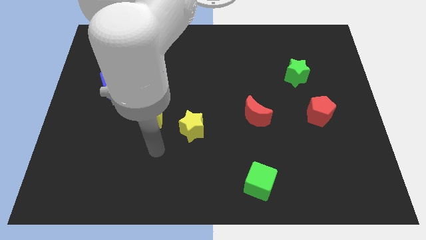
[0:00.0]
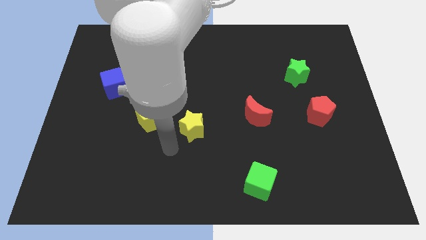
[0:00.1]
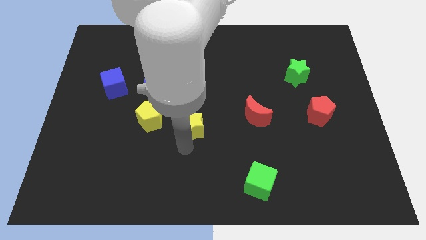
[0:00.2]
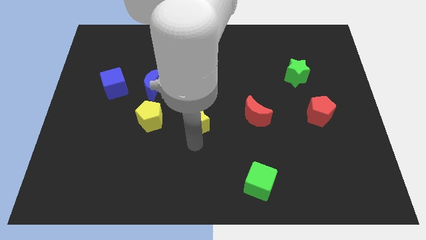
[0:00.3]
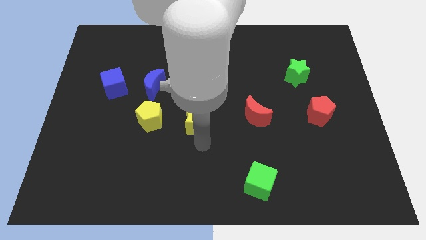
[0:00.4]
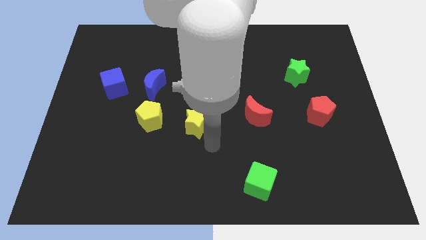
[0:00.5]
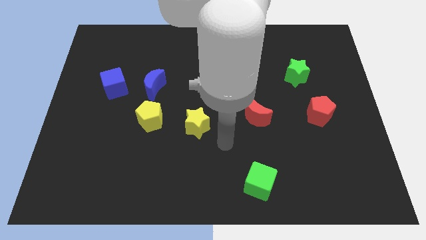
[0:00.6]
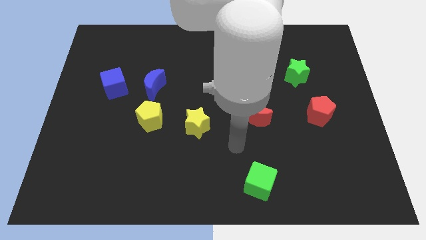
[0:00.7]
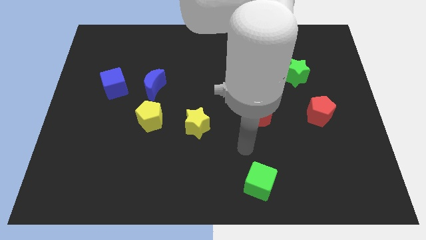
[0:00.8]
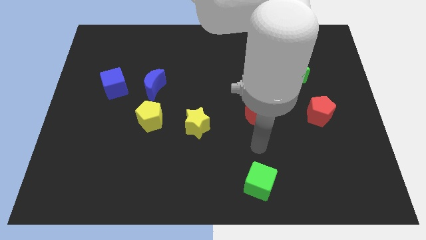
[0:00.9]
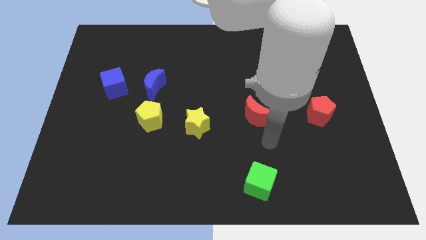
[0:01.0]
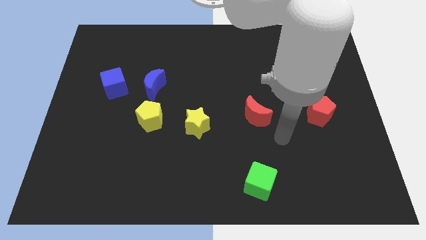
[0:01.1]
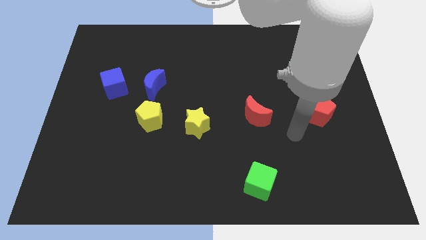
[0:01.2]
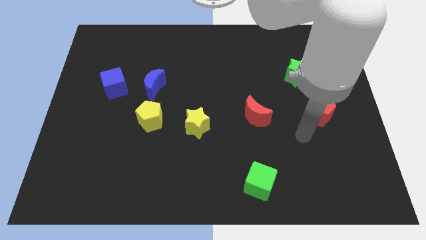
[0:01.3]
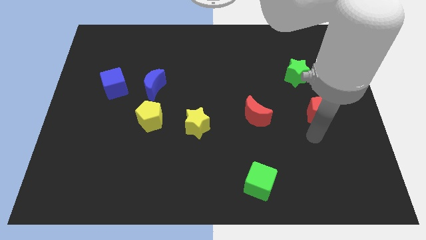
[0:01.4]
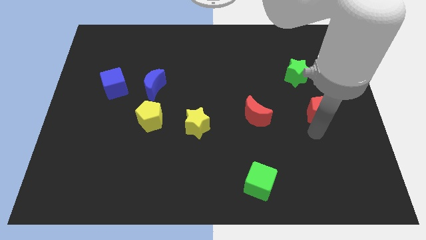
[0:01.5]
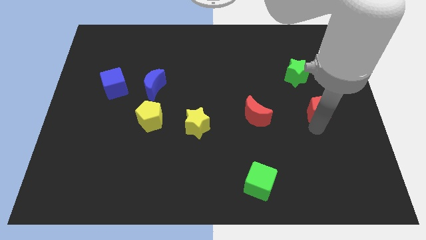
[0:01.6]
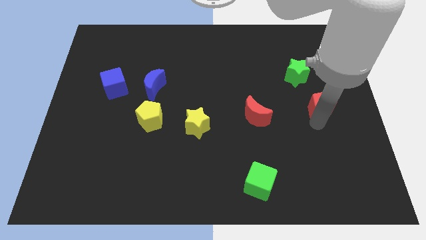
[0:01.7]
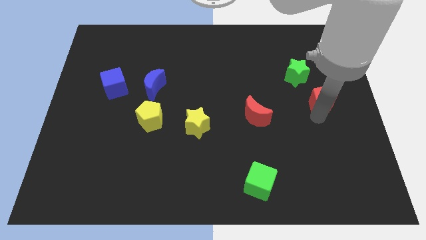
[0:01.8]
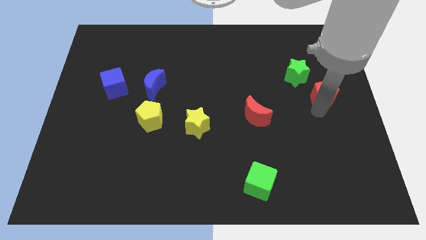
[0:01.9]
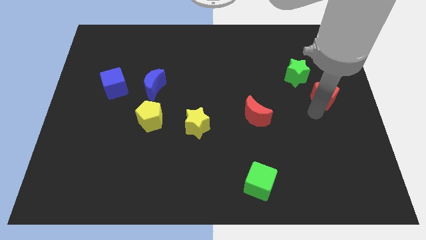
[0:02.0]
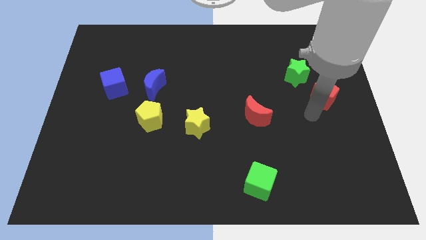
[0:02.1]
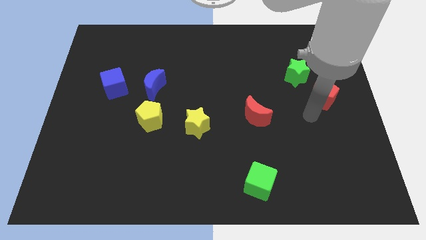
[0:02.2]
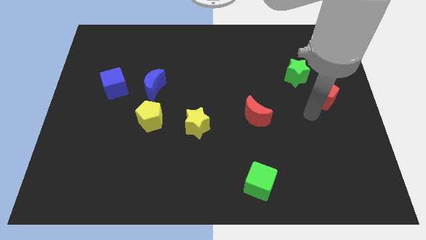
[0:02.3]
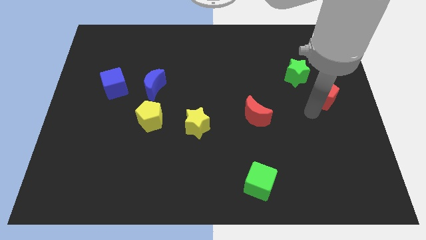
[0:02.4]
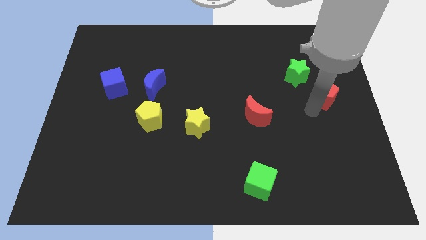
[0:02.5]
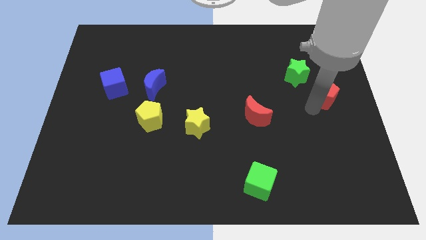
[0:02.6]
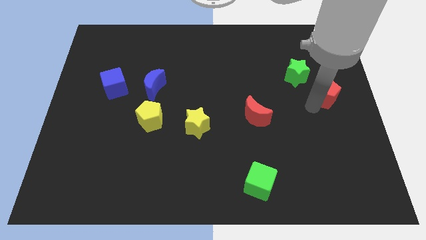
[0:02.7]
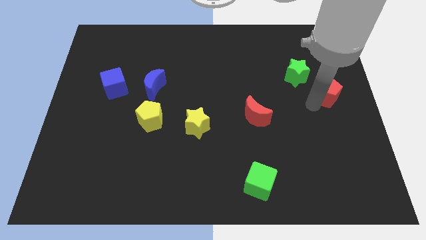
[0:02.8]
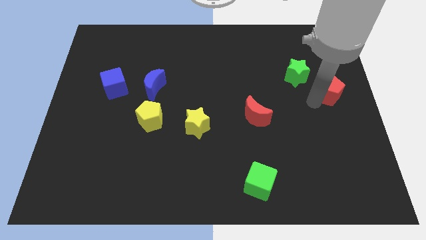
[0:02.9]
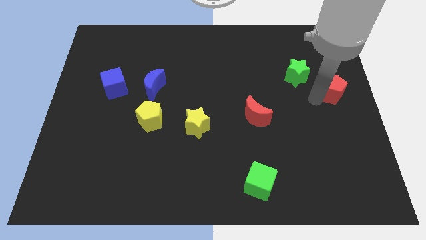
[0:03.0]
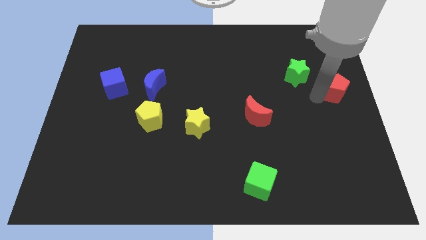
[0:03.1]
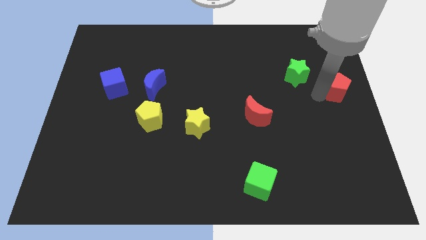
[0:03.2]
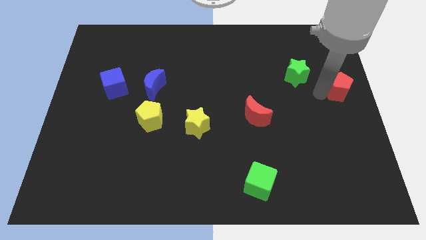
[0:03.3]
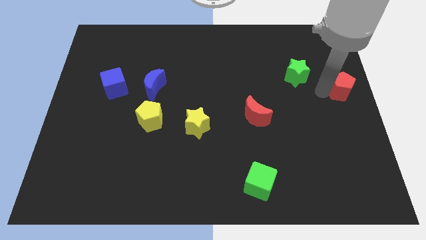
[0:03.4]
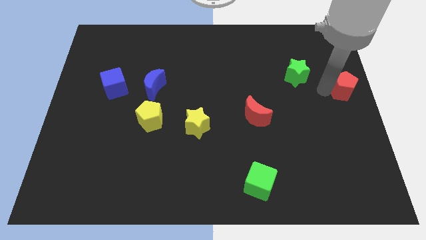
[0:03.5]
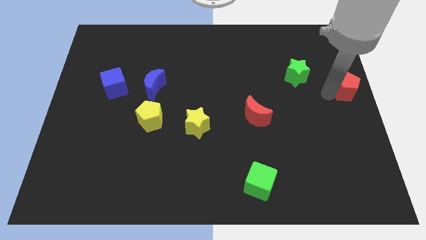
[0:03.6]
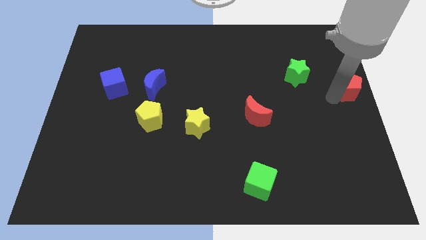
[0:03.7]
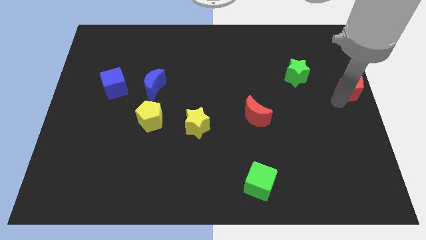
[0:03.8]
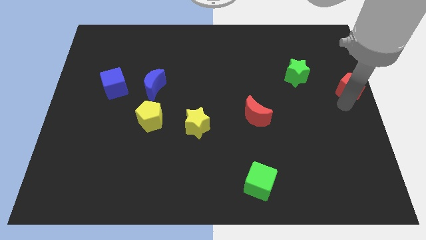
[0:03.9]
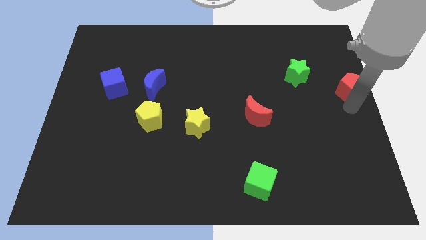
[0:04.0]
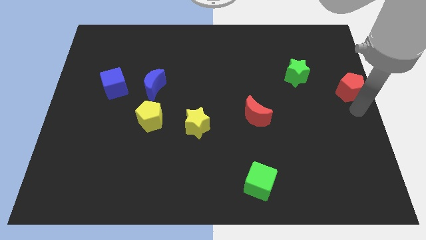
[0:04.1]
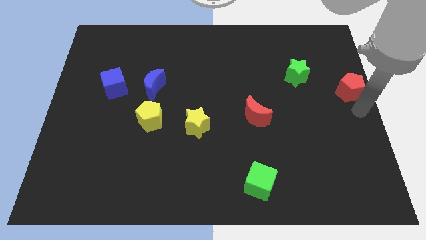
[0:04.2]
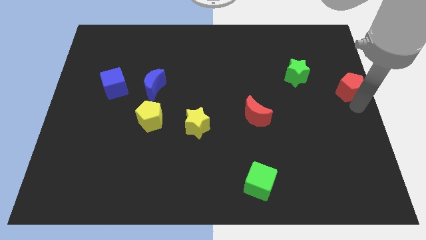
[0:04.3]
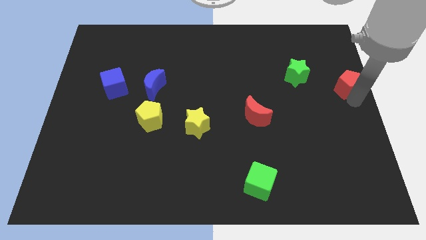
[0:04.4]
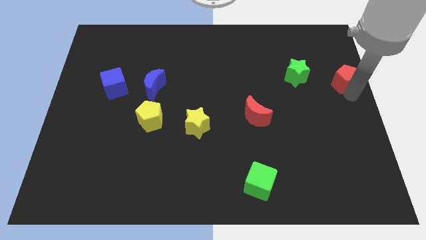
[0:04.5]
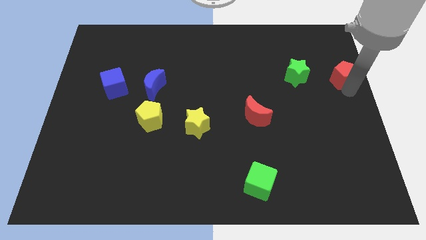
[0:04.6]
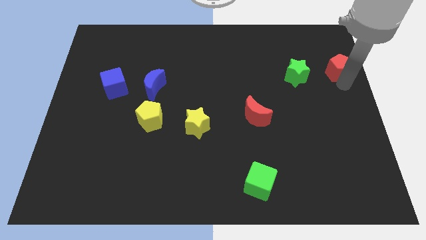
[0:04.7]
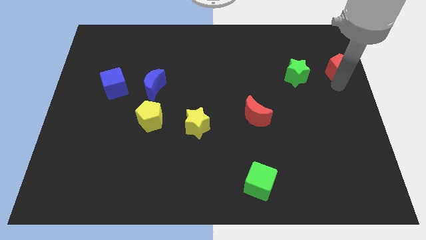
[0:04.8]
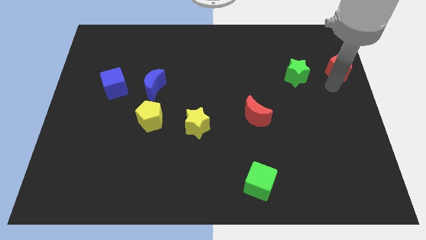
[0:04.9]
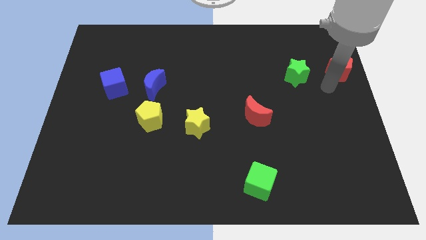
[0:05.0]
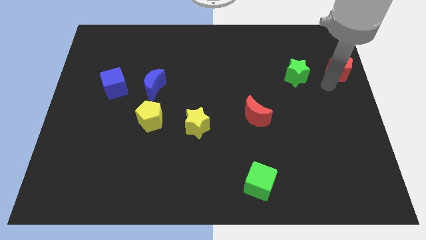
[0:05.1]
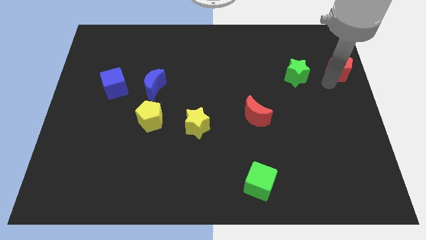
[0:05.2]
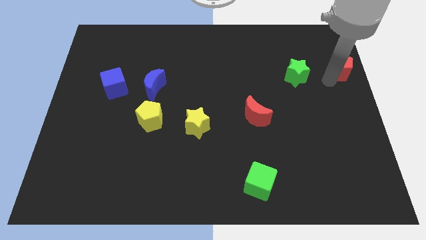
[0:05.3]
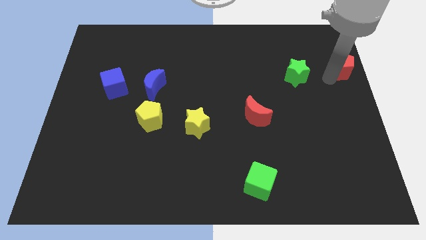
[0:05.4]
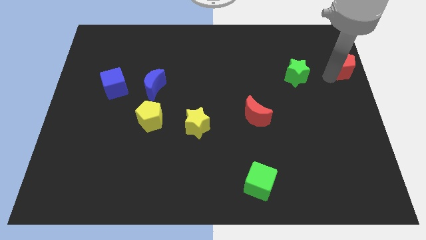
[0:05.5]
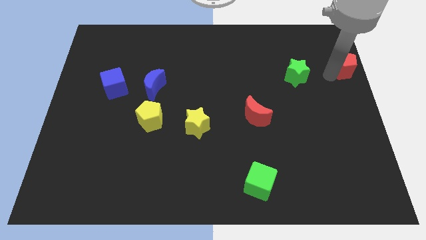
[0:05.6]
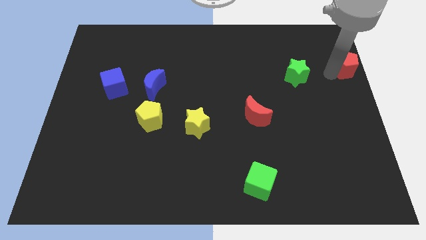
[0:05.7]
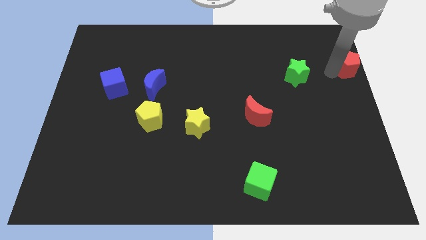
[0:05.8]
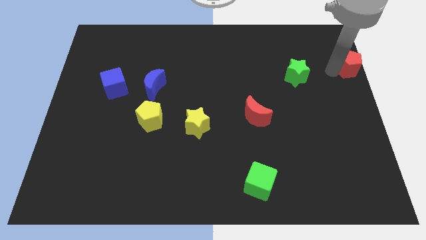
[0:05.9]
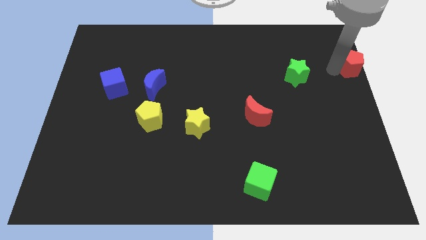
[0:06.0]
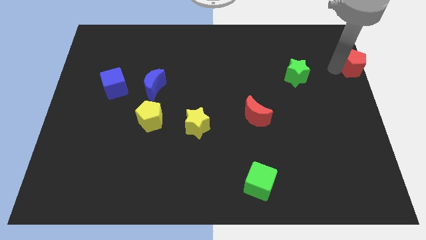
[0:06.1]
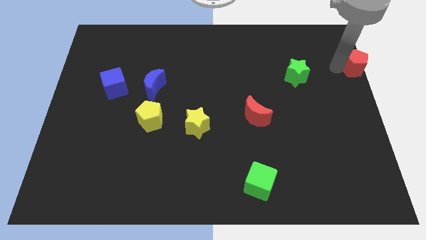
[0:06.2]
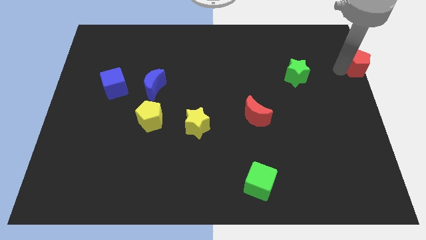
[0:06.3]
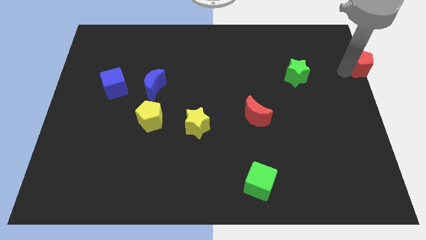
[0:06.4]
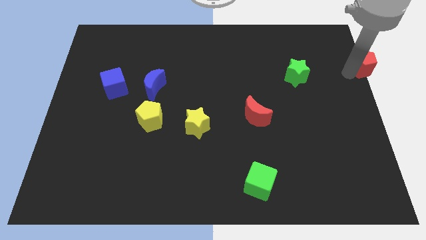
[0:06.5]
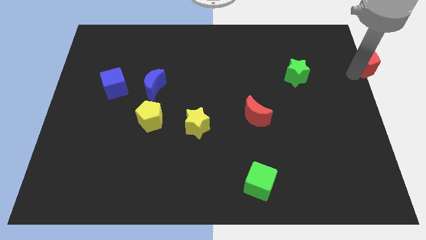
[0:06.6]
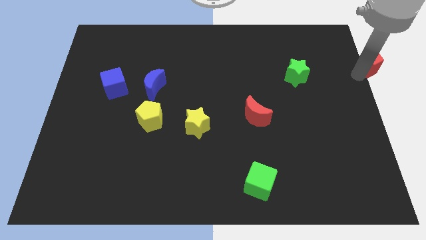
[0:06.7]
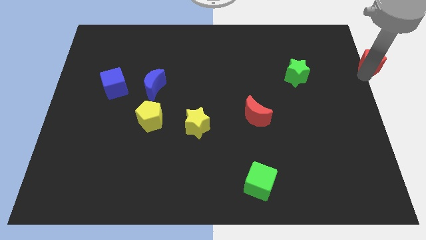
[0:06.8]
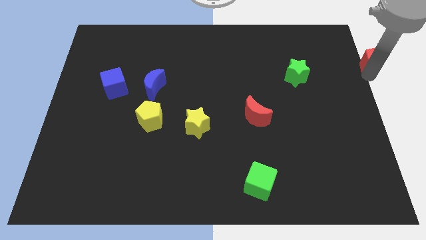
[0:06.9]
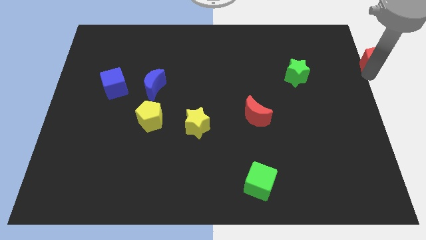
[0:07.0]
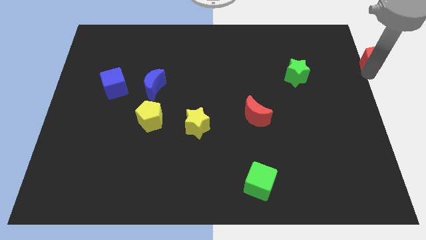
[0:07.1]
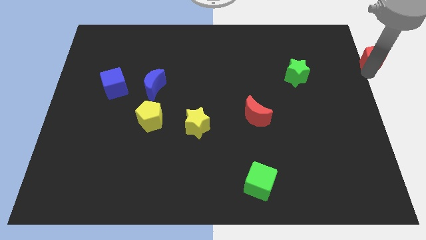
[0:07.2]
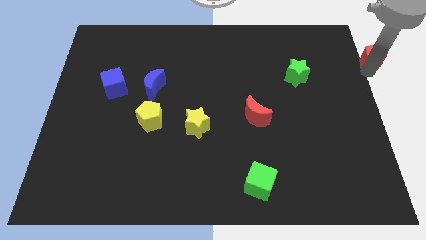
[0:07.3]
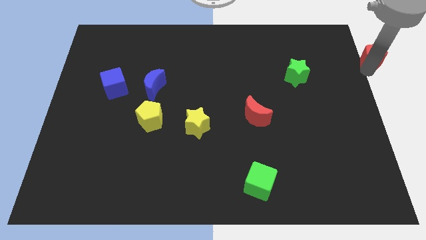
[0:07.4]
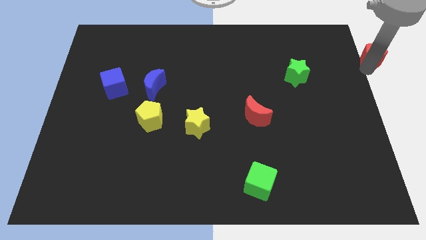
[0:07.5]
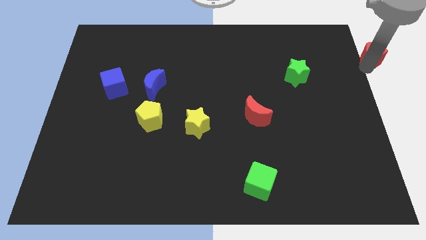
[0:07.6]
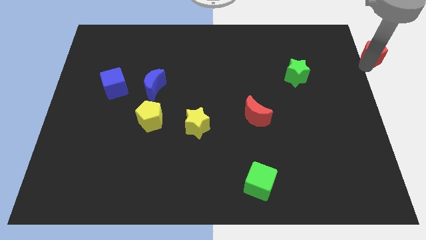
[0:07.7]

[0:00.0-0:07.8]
slide the red pentagon to the top right of the board
